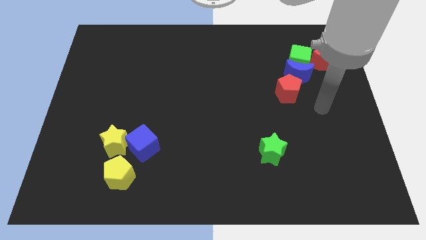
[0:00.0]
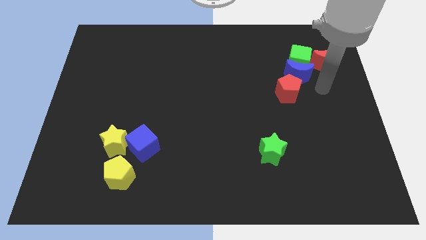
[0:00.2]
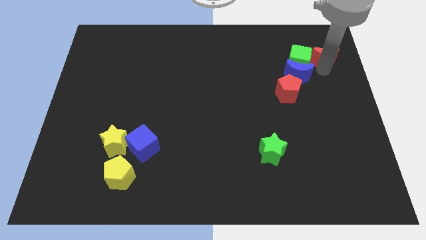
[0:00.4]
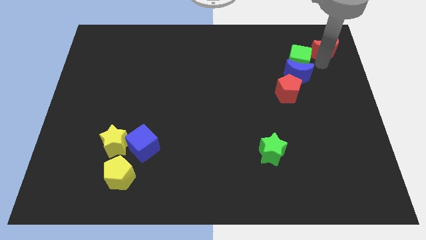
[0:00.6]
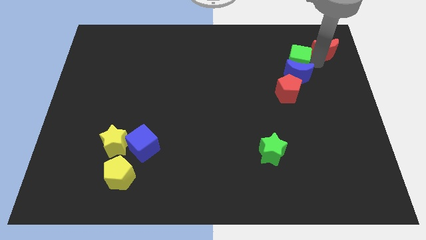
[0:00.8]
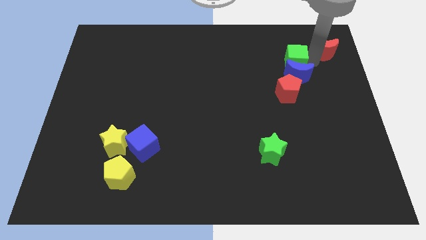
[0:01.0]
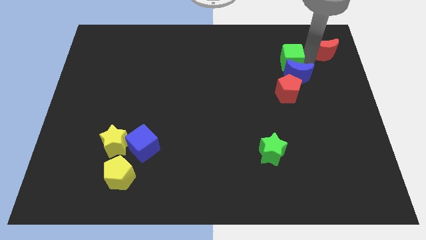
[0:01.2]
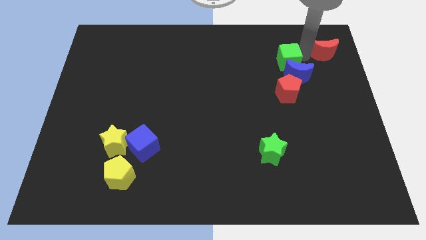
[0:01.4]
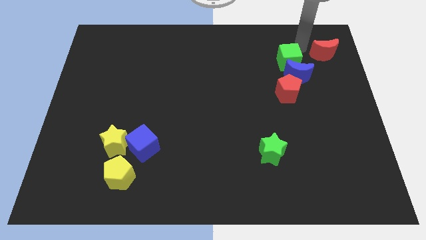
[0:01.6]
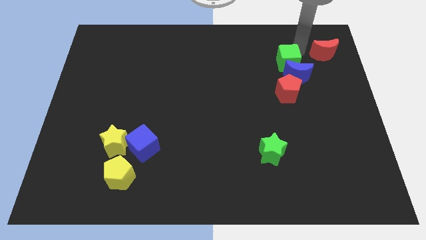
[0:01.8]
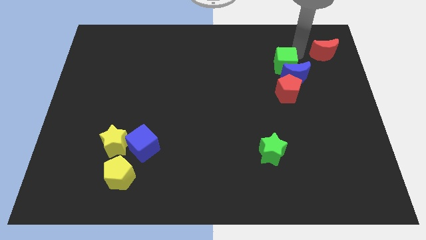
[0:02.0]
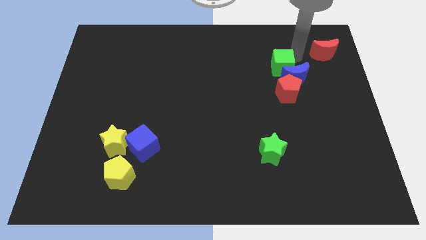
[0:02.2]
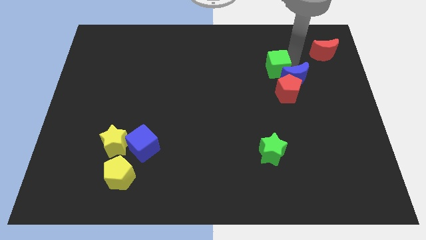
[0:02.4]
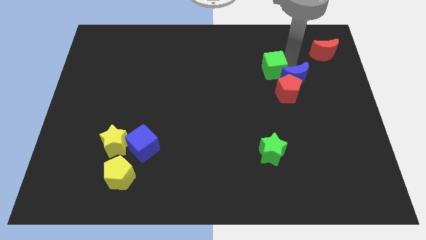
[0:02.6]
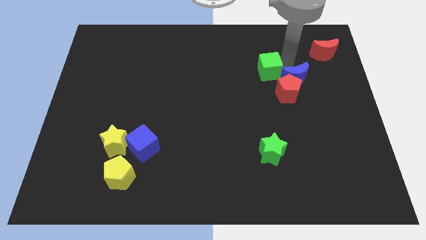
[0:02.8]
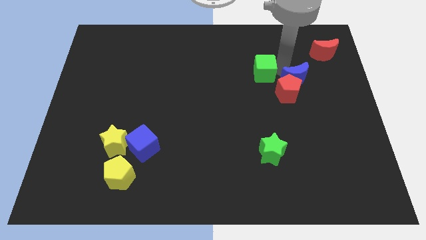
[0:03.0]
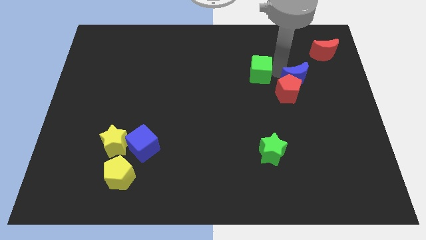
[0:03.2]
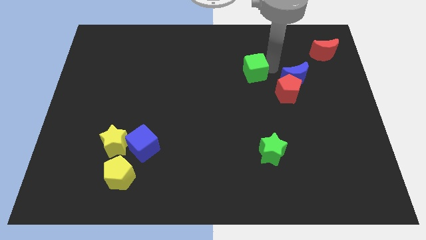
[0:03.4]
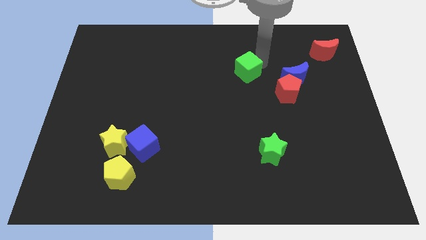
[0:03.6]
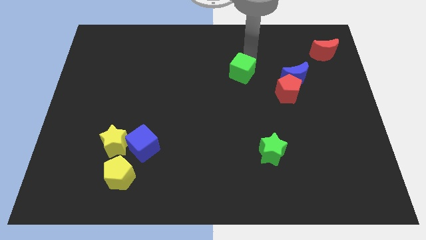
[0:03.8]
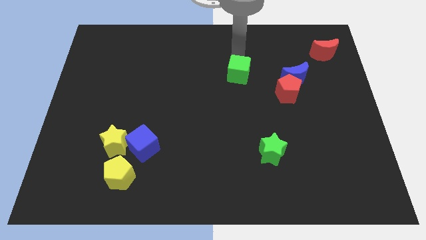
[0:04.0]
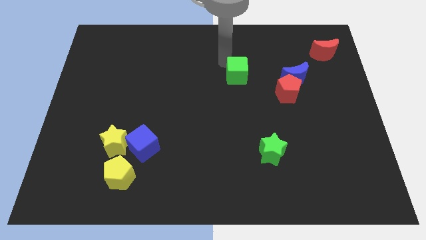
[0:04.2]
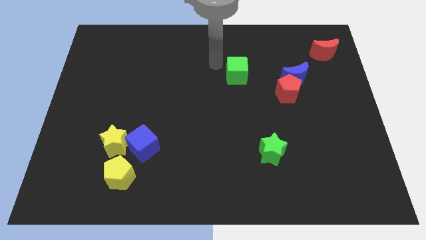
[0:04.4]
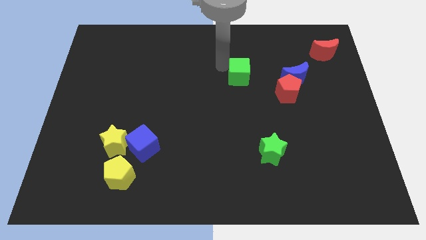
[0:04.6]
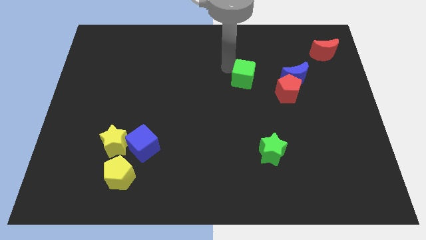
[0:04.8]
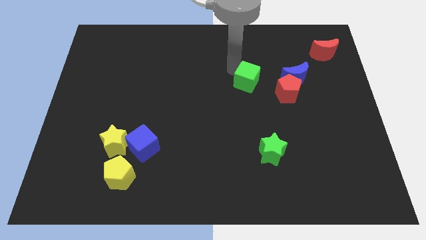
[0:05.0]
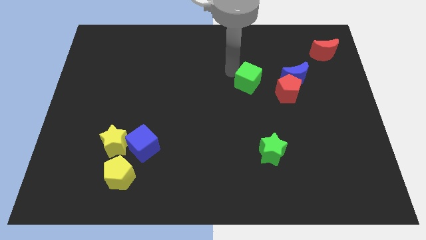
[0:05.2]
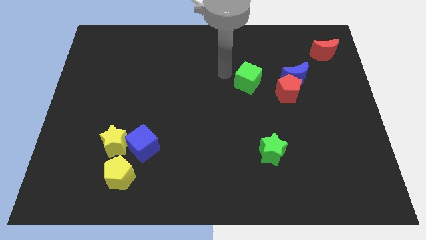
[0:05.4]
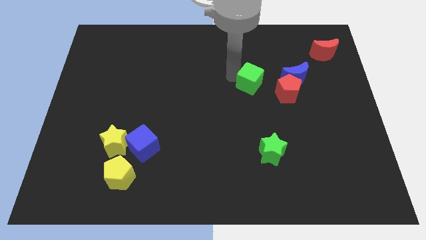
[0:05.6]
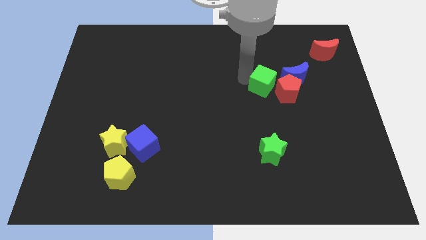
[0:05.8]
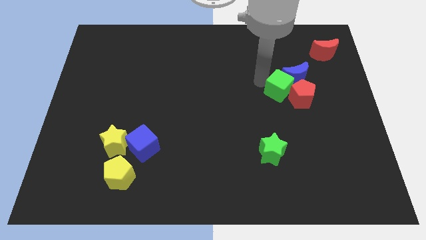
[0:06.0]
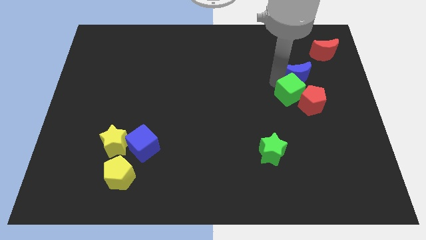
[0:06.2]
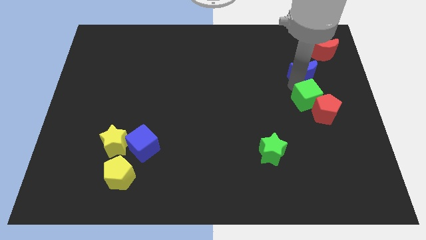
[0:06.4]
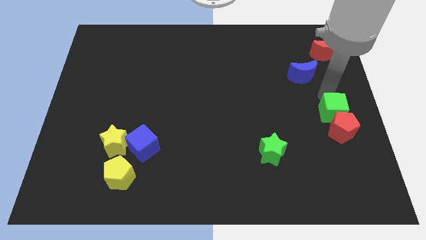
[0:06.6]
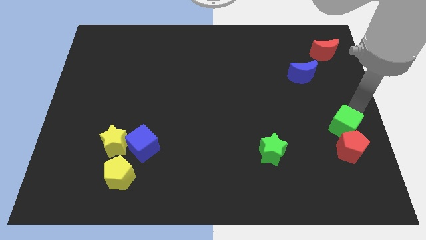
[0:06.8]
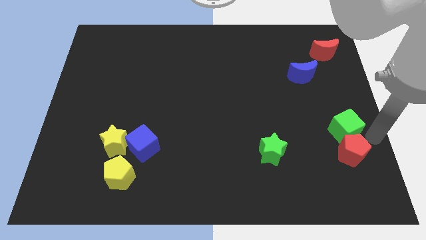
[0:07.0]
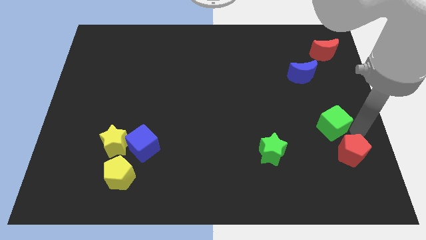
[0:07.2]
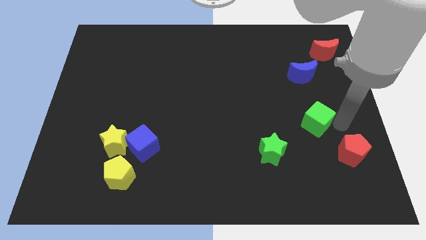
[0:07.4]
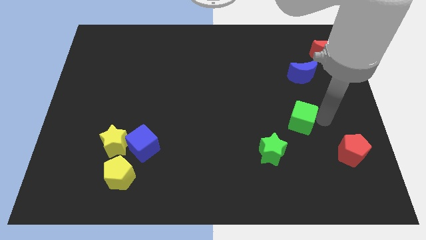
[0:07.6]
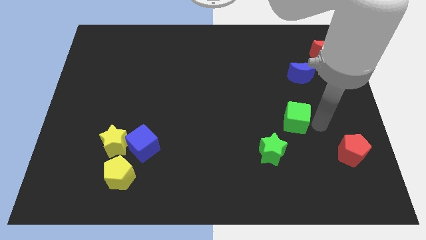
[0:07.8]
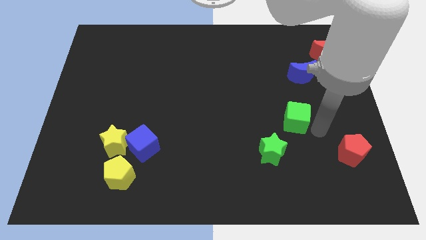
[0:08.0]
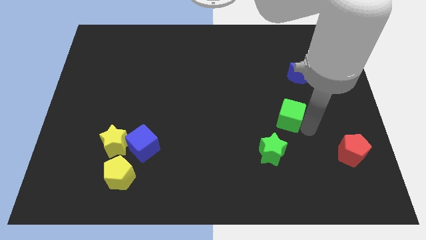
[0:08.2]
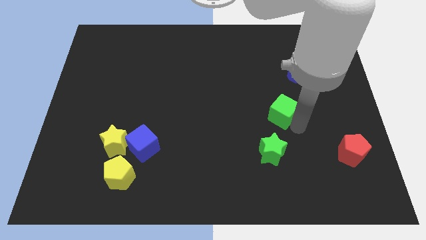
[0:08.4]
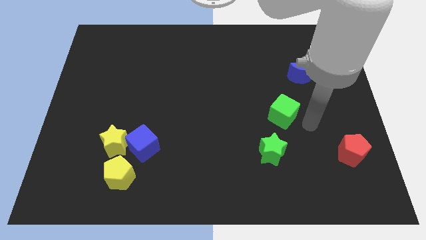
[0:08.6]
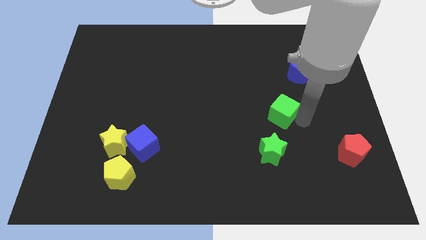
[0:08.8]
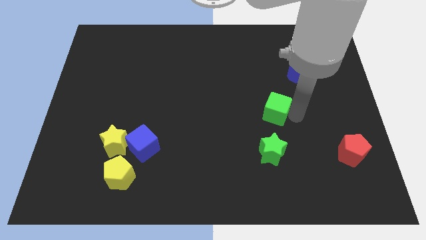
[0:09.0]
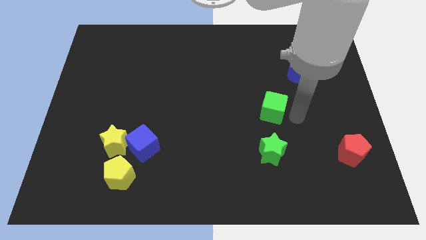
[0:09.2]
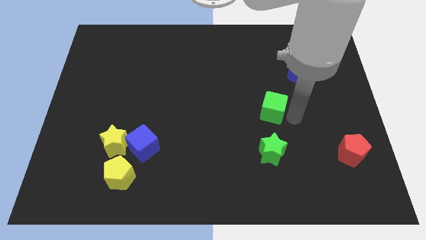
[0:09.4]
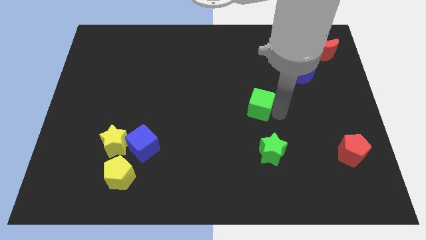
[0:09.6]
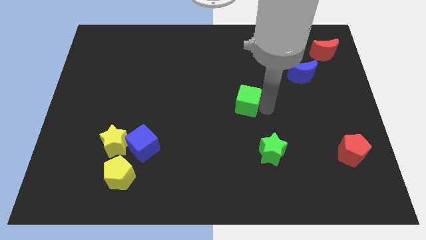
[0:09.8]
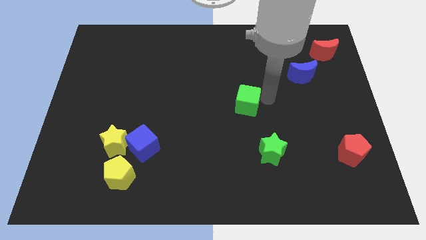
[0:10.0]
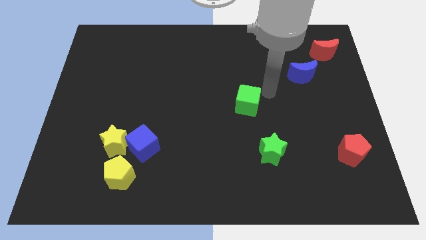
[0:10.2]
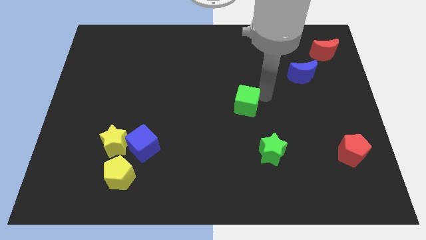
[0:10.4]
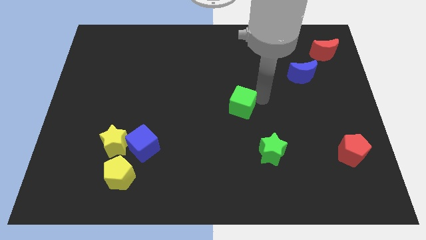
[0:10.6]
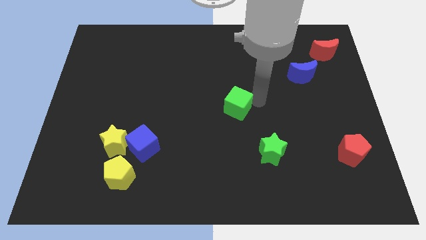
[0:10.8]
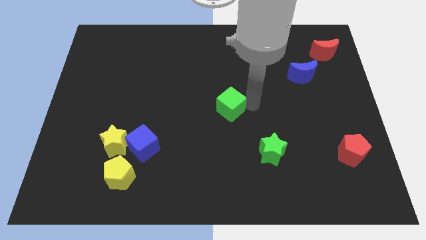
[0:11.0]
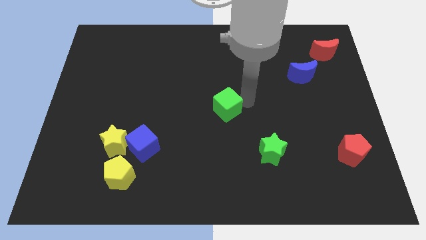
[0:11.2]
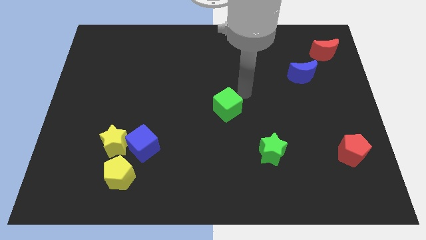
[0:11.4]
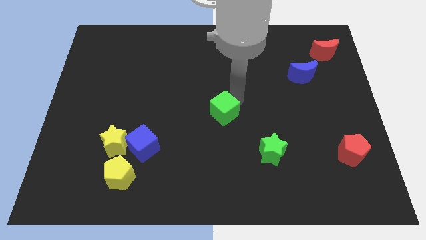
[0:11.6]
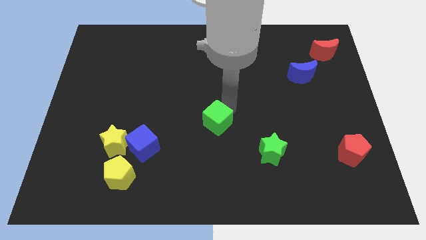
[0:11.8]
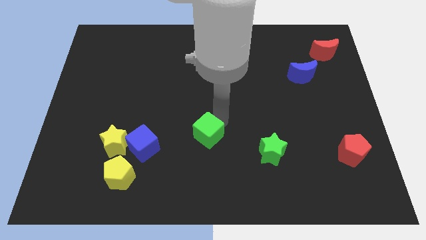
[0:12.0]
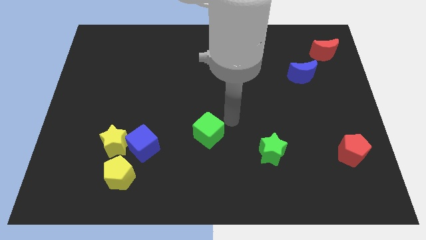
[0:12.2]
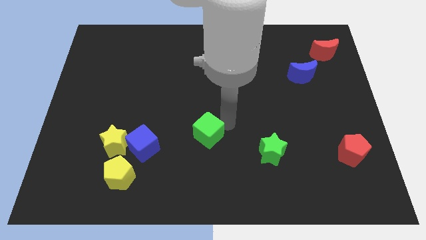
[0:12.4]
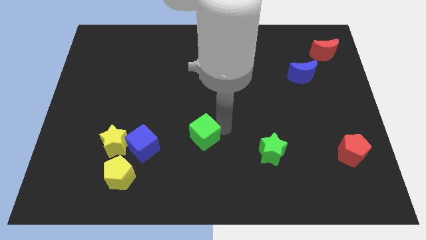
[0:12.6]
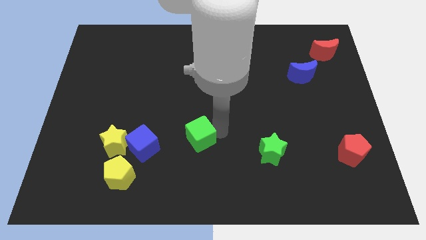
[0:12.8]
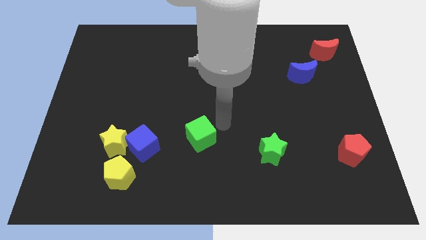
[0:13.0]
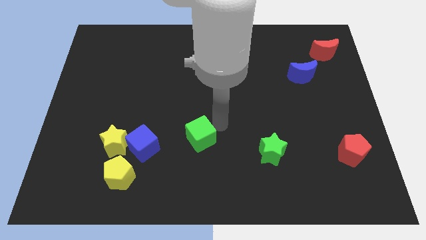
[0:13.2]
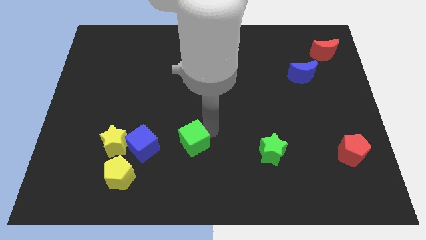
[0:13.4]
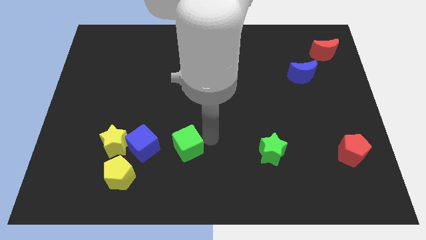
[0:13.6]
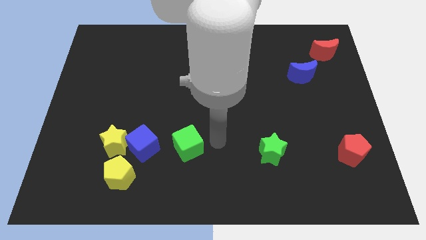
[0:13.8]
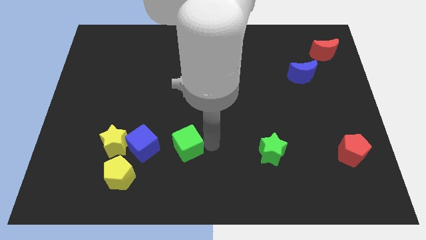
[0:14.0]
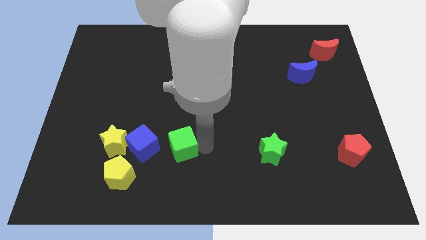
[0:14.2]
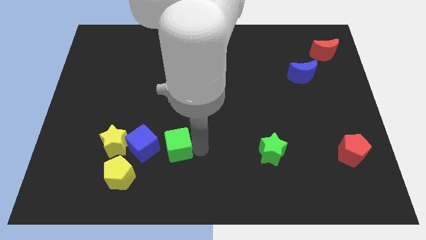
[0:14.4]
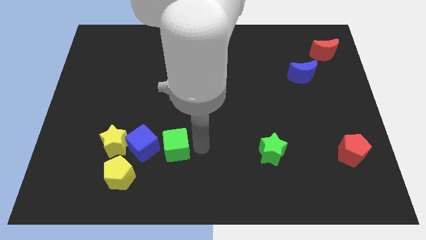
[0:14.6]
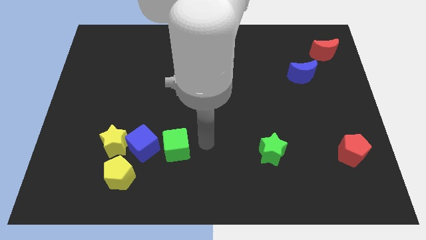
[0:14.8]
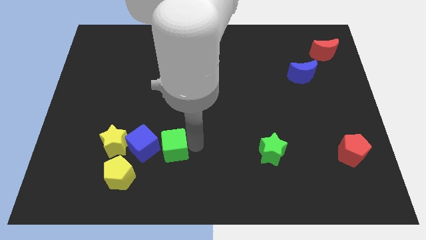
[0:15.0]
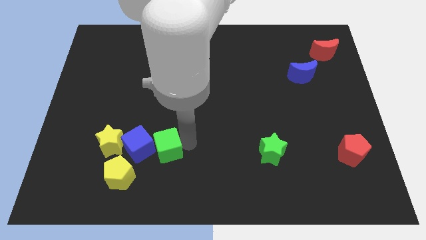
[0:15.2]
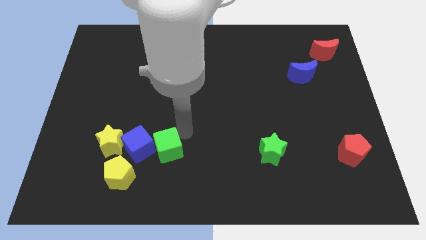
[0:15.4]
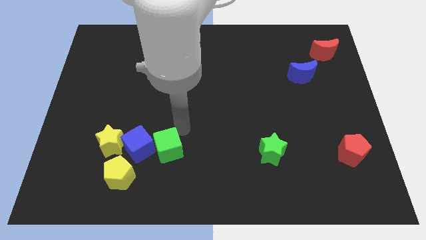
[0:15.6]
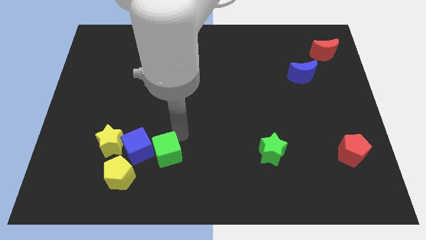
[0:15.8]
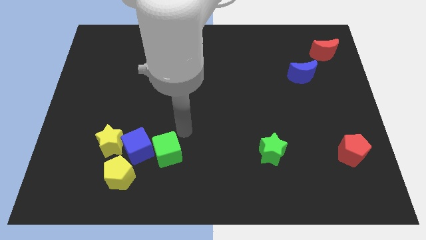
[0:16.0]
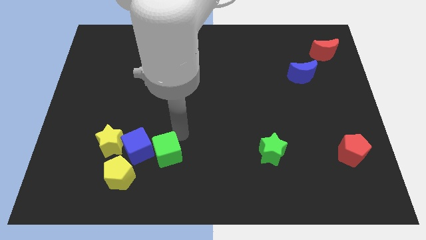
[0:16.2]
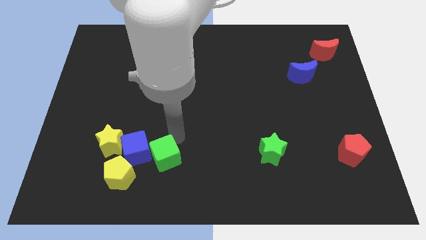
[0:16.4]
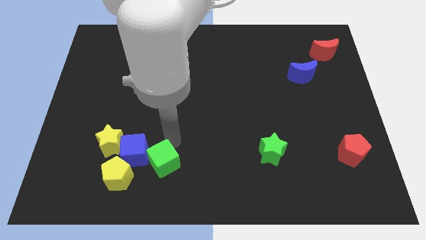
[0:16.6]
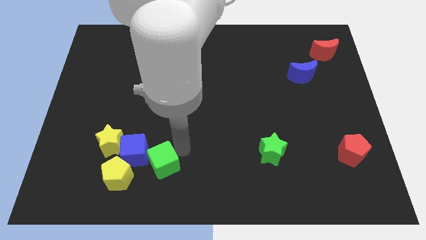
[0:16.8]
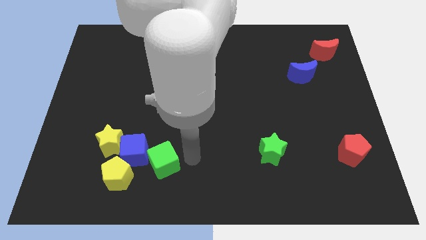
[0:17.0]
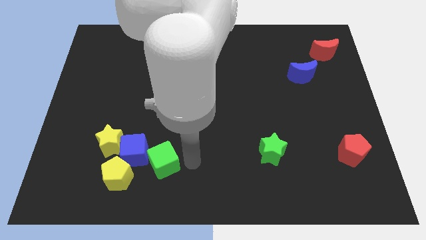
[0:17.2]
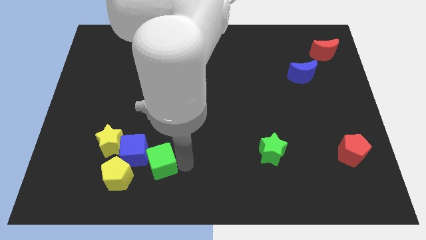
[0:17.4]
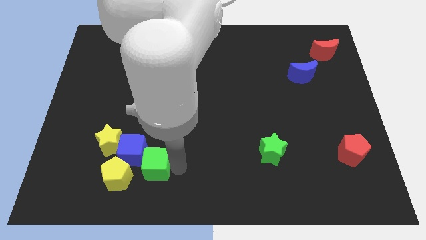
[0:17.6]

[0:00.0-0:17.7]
put the green cube to the bottom right side of the yellow star
